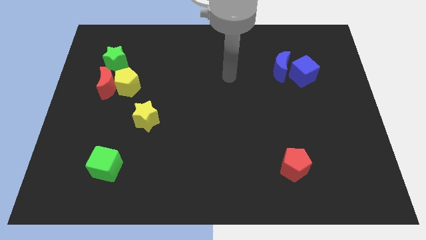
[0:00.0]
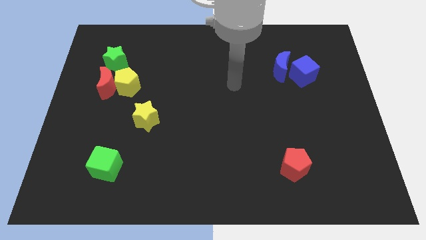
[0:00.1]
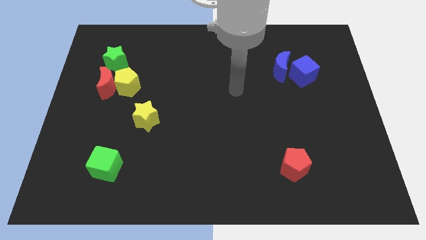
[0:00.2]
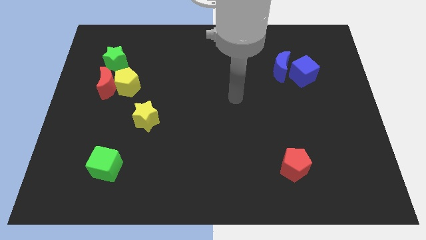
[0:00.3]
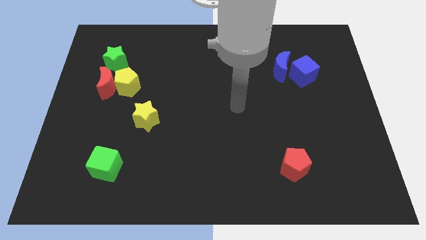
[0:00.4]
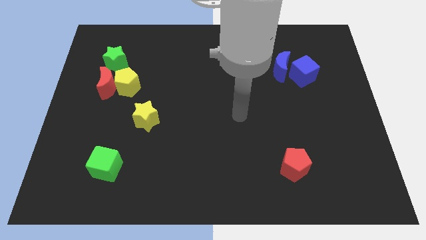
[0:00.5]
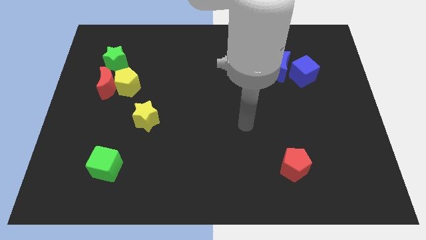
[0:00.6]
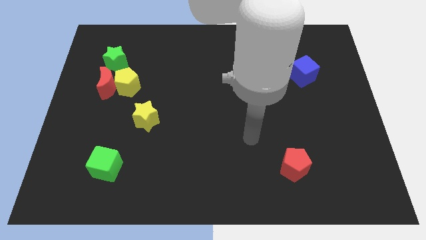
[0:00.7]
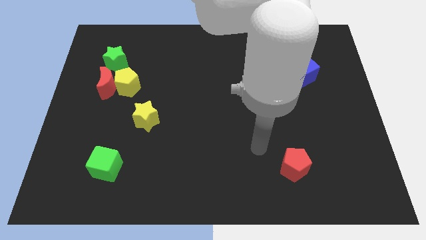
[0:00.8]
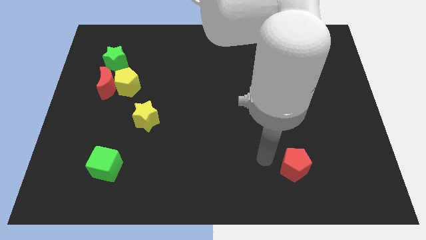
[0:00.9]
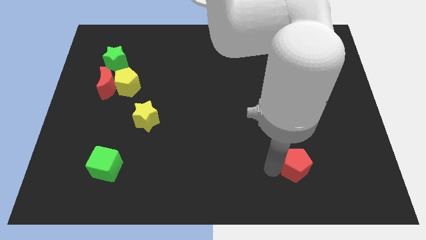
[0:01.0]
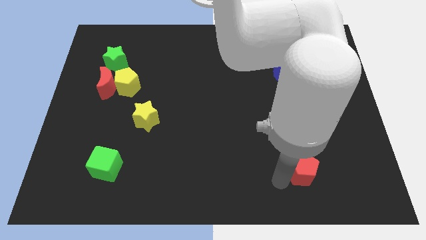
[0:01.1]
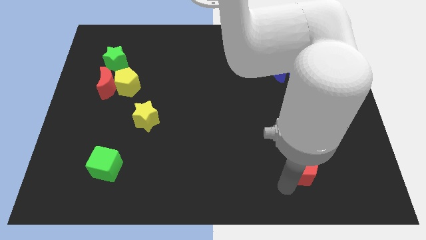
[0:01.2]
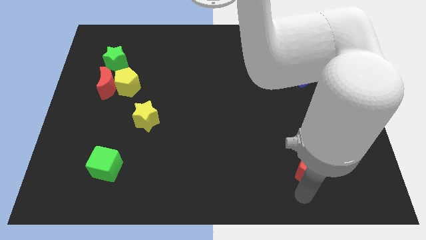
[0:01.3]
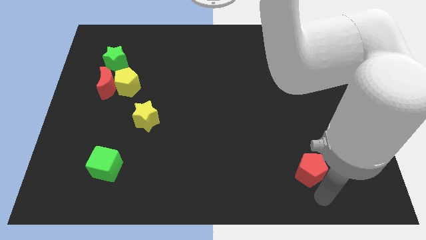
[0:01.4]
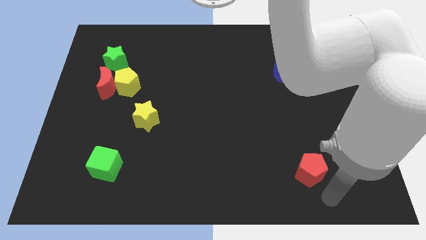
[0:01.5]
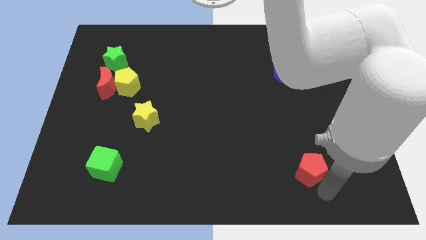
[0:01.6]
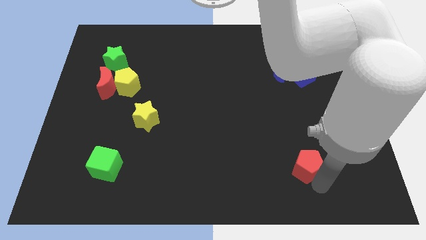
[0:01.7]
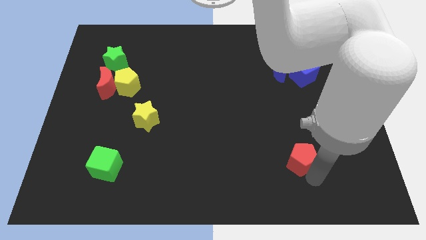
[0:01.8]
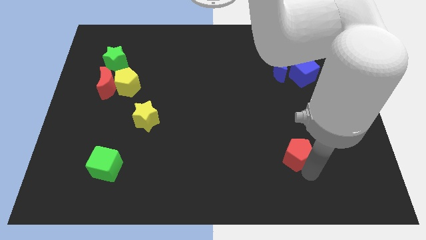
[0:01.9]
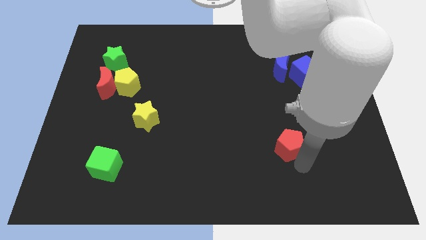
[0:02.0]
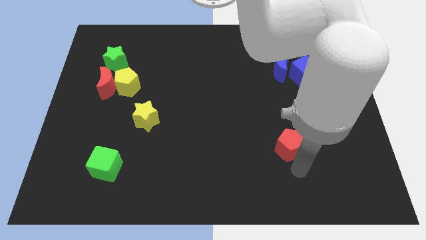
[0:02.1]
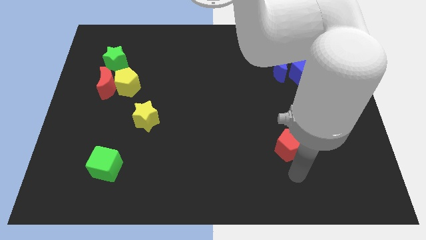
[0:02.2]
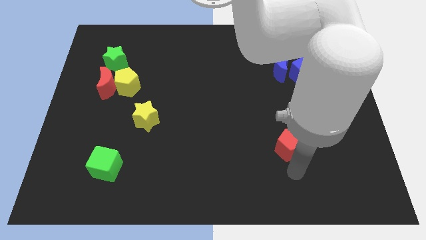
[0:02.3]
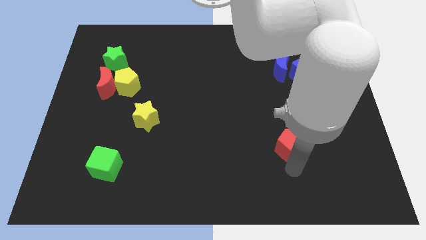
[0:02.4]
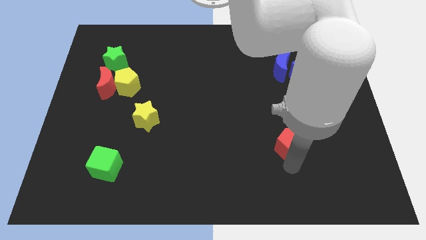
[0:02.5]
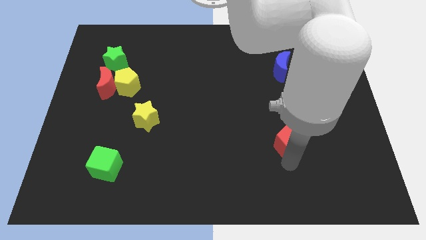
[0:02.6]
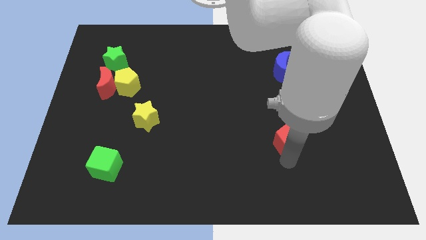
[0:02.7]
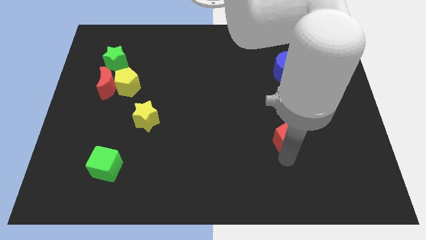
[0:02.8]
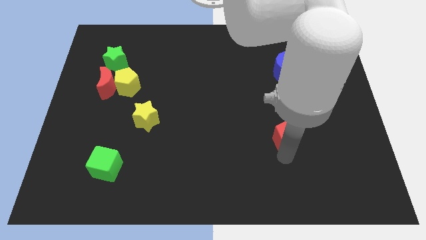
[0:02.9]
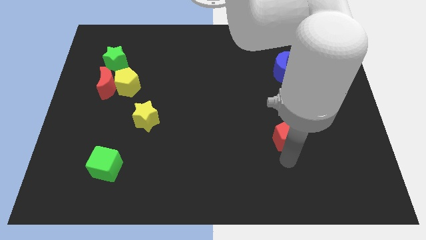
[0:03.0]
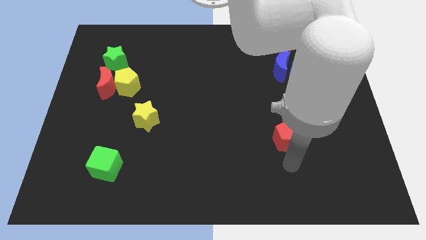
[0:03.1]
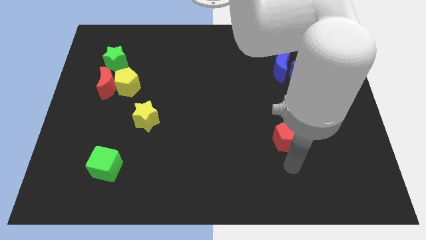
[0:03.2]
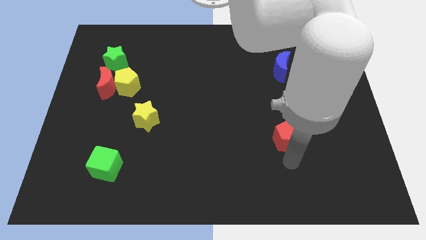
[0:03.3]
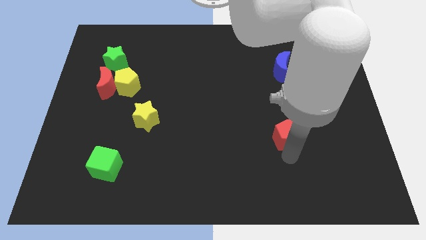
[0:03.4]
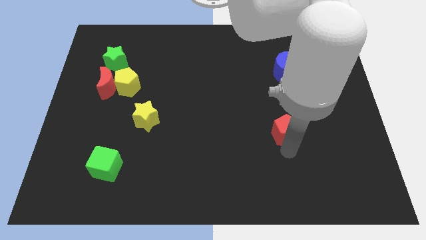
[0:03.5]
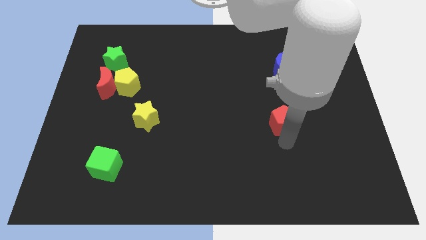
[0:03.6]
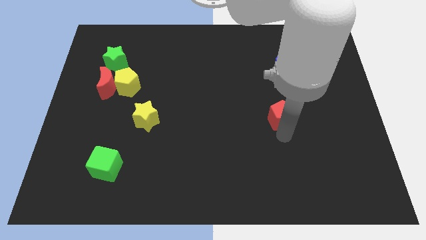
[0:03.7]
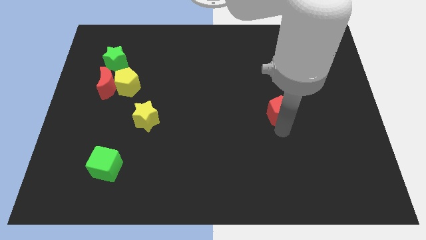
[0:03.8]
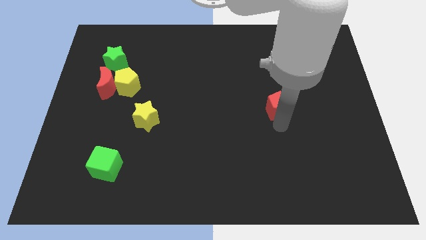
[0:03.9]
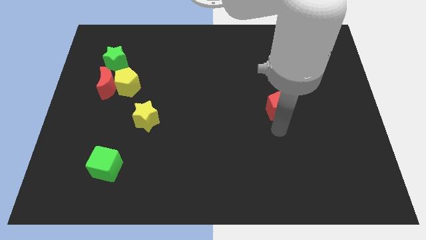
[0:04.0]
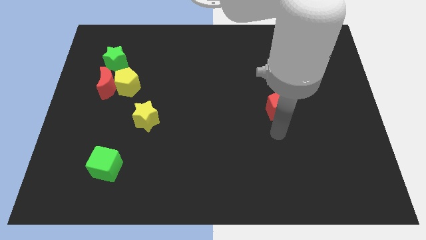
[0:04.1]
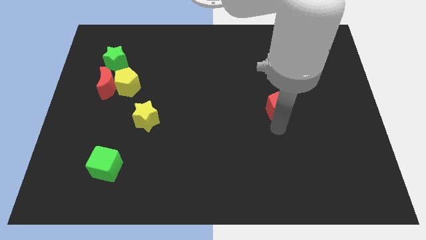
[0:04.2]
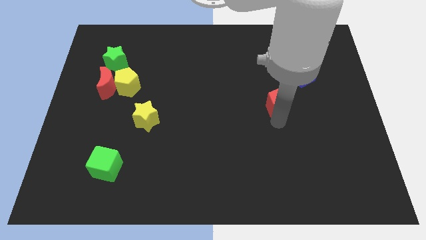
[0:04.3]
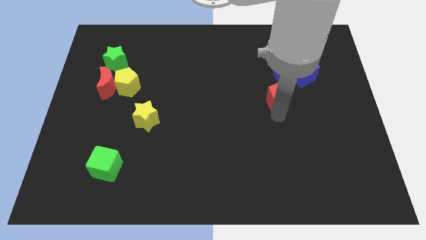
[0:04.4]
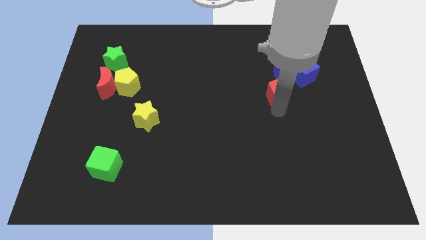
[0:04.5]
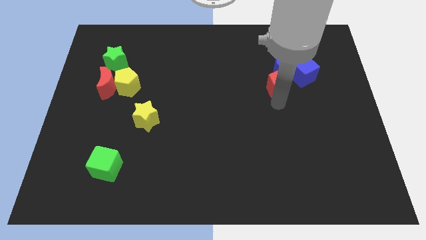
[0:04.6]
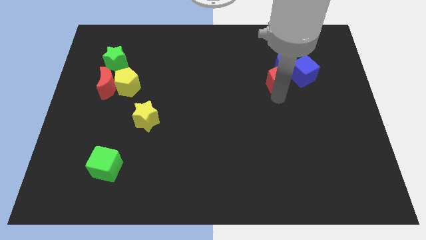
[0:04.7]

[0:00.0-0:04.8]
put the red pentagon close to the blue moon

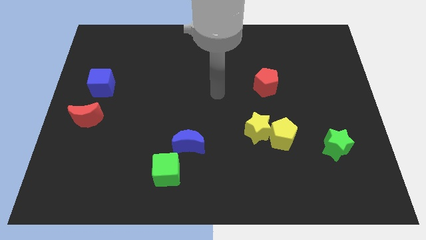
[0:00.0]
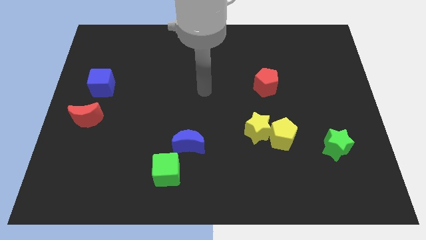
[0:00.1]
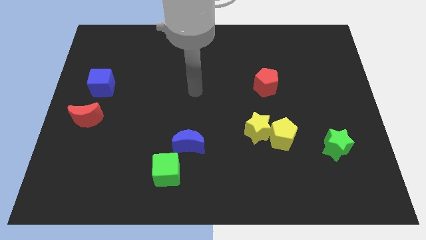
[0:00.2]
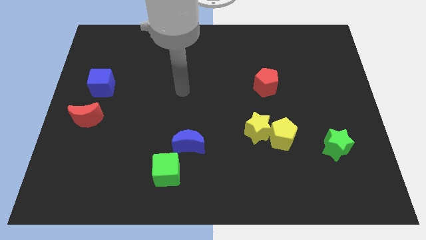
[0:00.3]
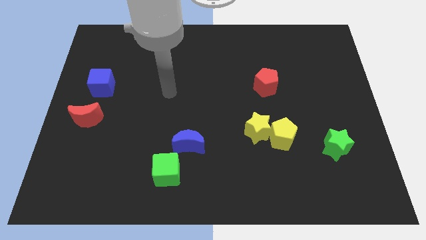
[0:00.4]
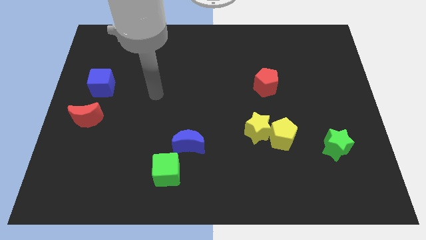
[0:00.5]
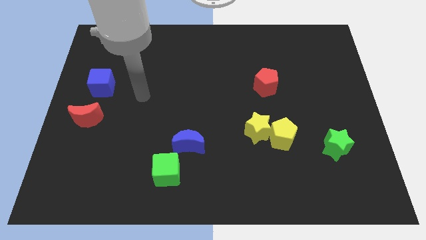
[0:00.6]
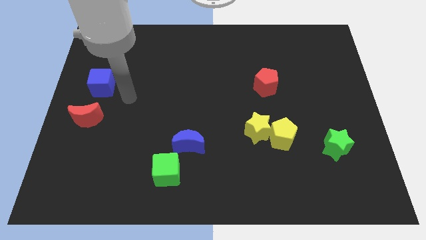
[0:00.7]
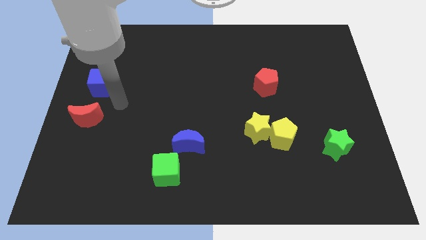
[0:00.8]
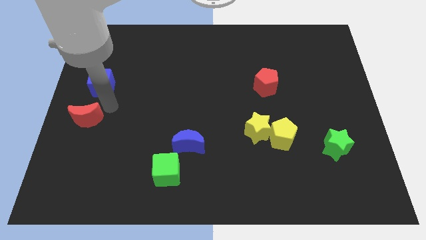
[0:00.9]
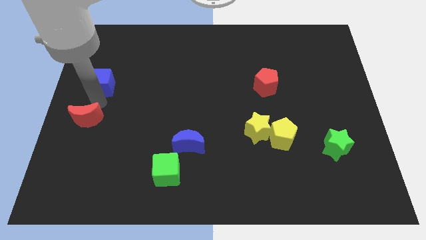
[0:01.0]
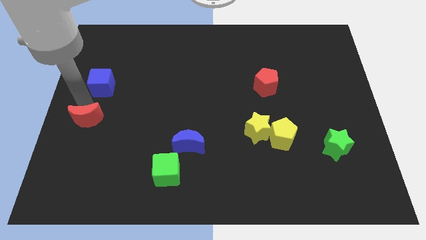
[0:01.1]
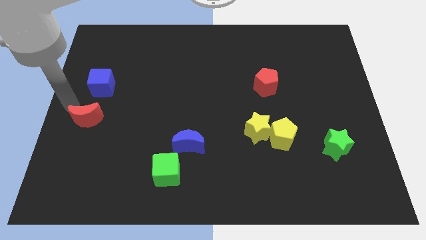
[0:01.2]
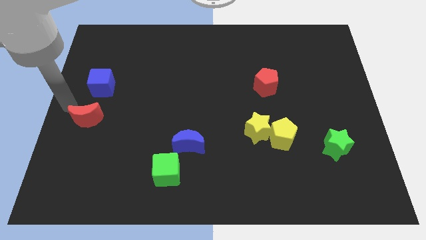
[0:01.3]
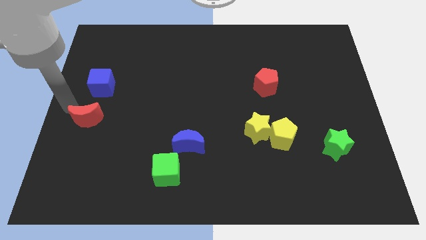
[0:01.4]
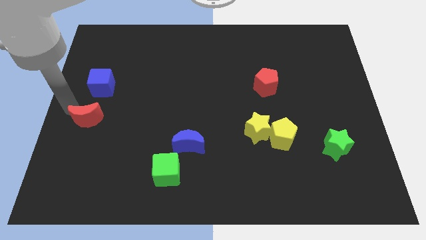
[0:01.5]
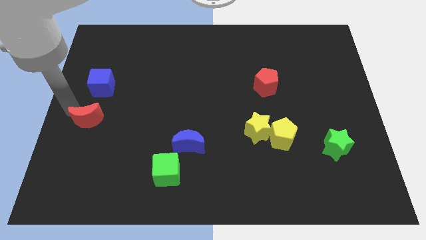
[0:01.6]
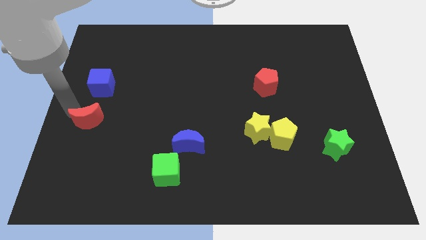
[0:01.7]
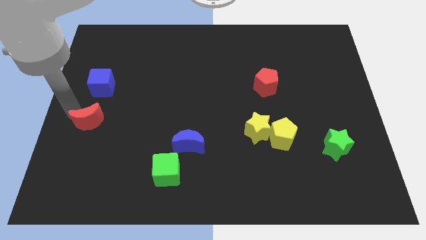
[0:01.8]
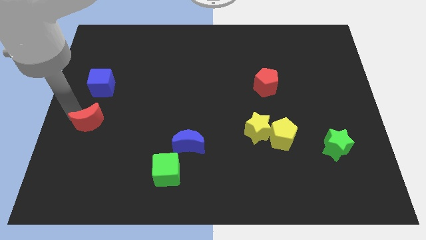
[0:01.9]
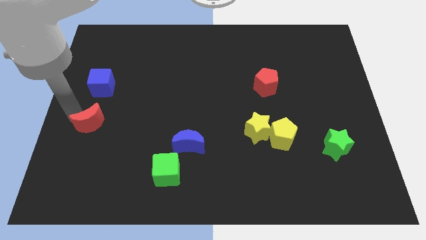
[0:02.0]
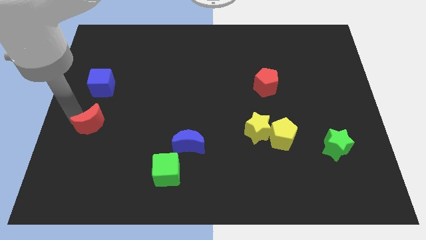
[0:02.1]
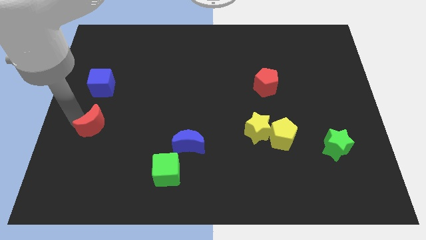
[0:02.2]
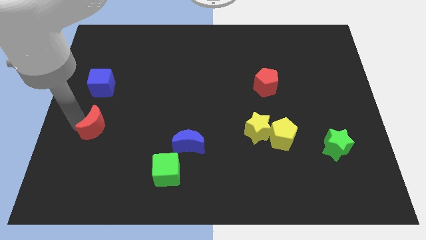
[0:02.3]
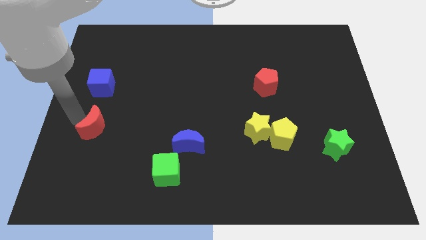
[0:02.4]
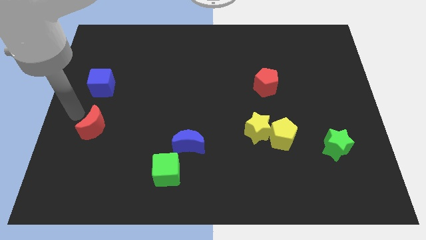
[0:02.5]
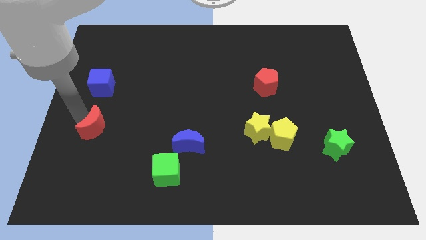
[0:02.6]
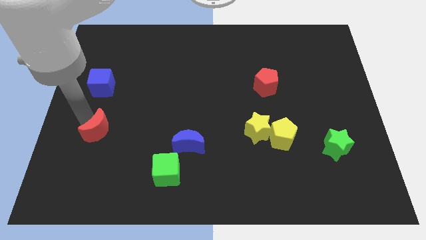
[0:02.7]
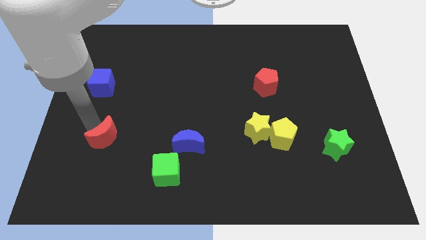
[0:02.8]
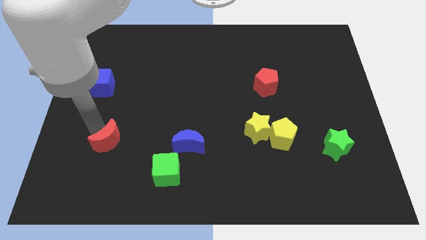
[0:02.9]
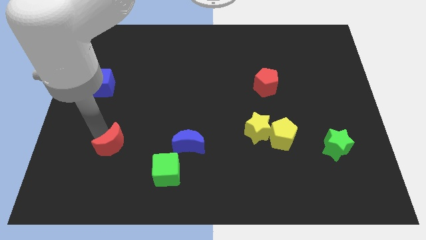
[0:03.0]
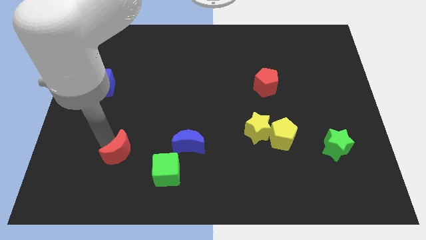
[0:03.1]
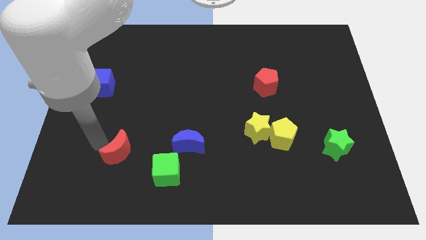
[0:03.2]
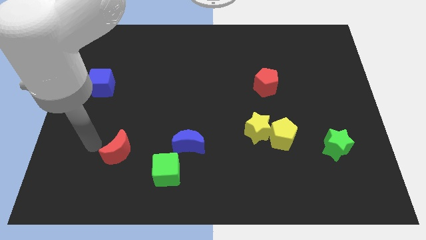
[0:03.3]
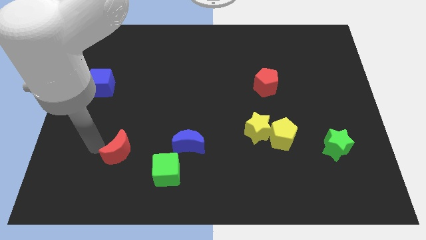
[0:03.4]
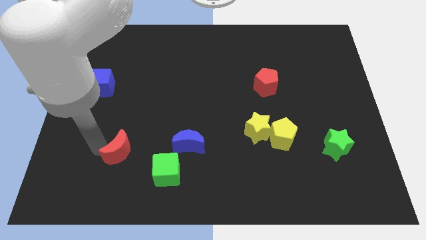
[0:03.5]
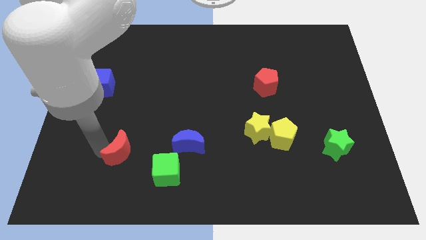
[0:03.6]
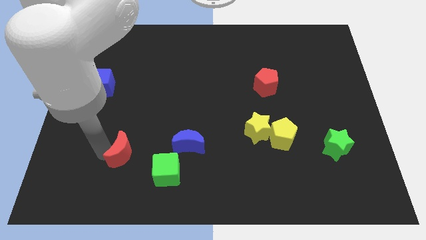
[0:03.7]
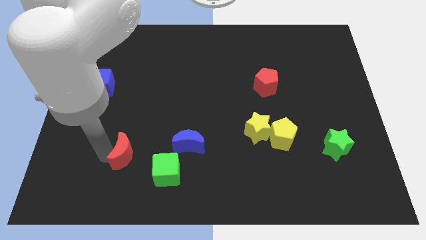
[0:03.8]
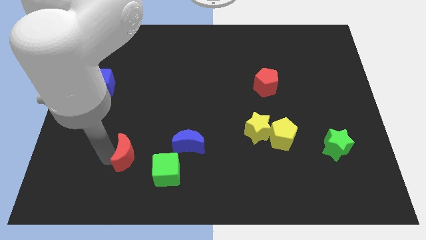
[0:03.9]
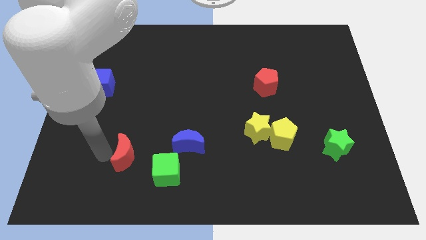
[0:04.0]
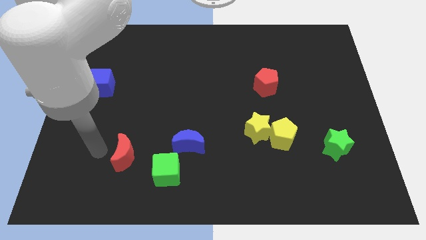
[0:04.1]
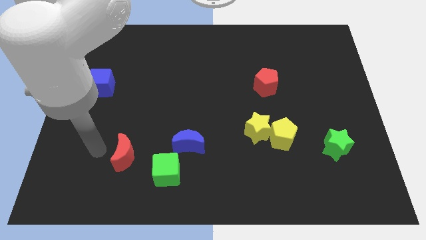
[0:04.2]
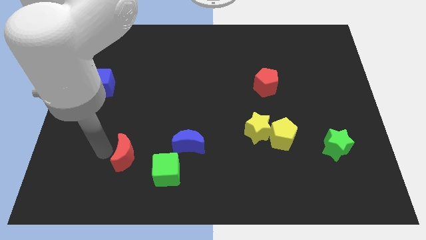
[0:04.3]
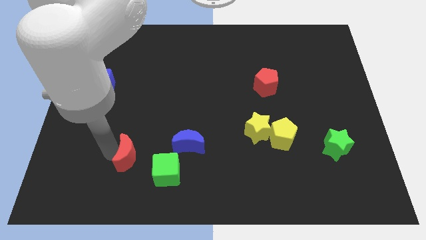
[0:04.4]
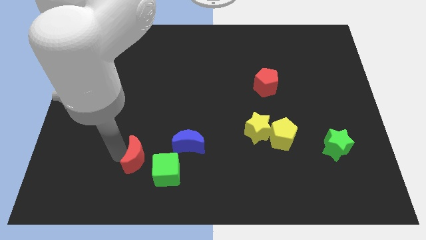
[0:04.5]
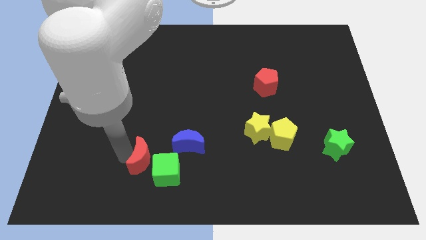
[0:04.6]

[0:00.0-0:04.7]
slide the red moon towards the green cube
